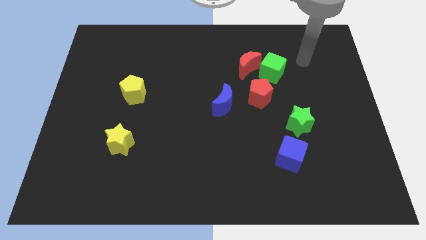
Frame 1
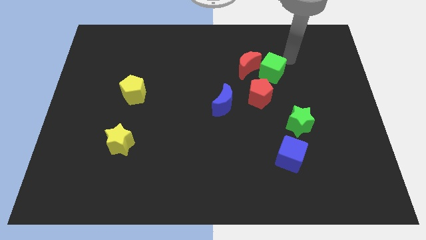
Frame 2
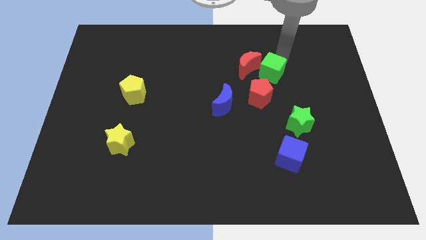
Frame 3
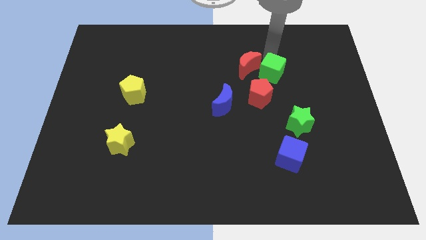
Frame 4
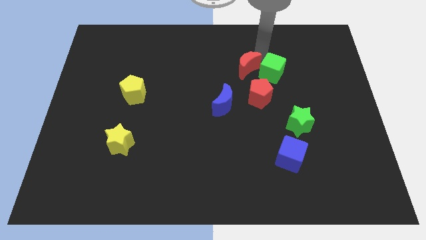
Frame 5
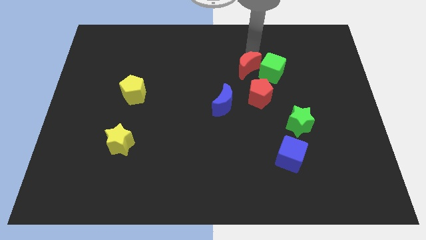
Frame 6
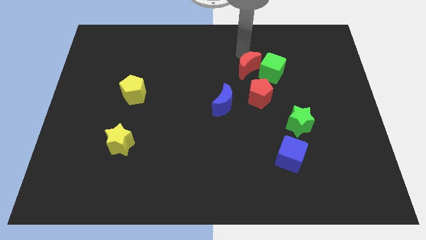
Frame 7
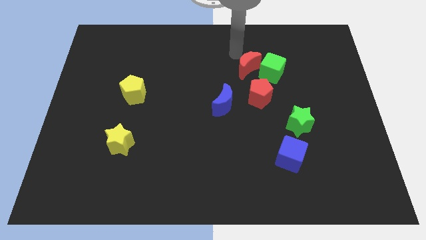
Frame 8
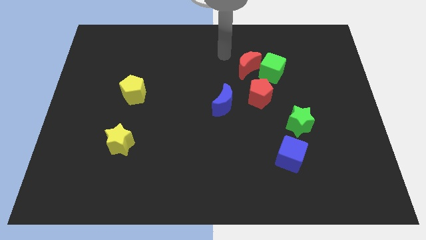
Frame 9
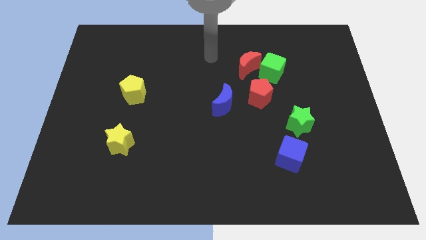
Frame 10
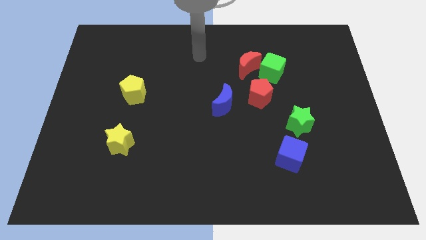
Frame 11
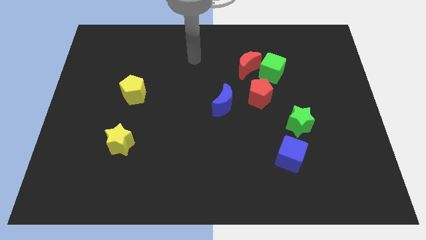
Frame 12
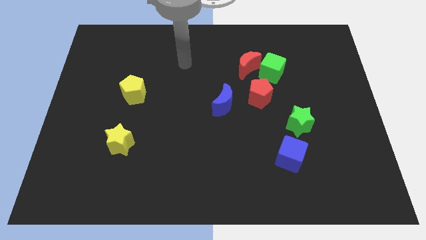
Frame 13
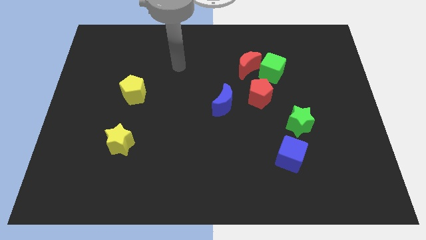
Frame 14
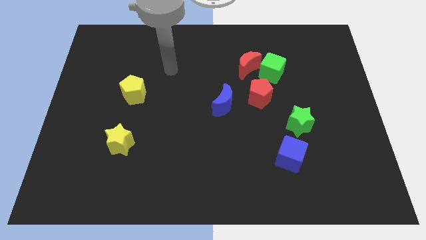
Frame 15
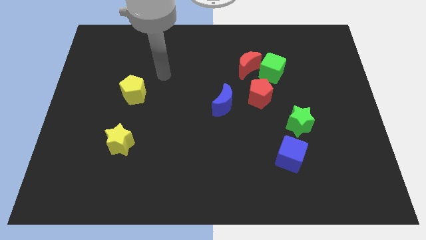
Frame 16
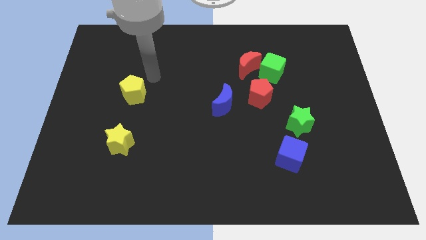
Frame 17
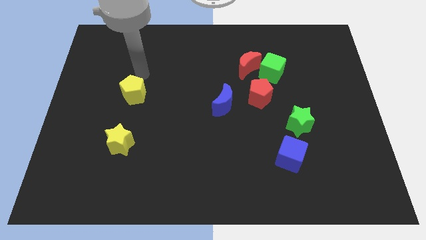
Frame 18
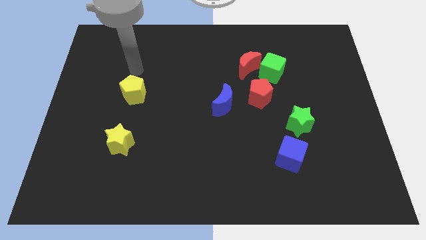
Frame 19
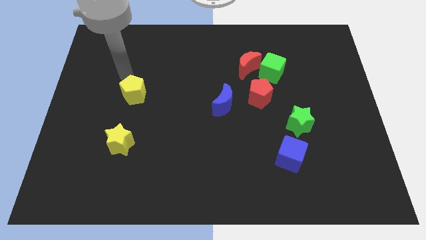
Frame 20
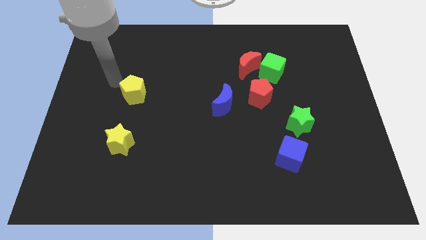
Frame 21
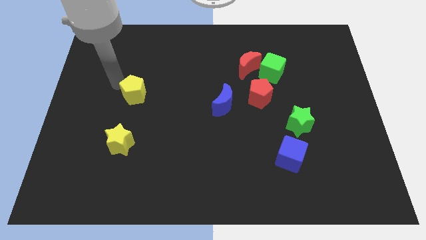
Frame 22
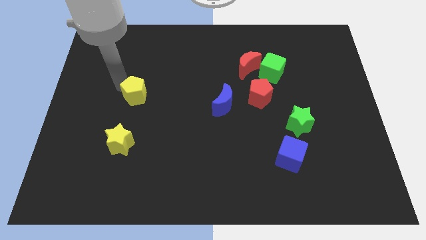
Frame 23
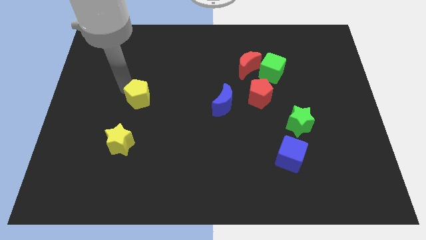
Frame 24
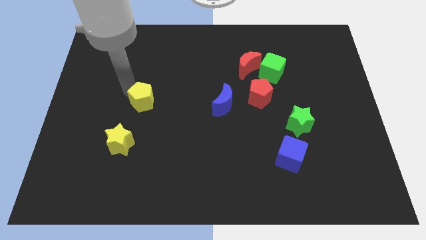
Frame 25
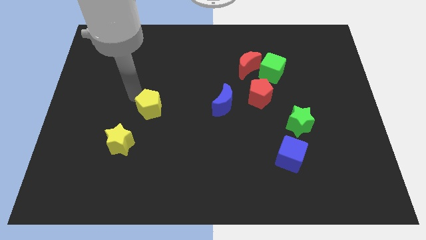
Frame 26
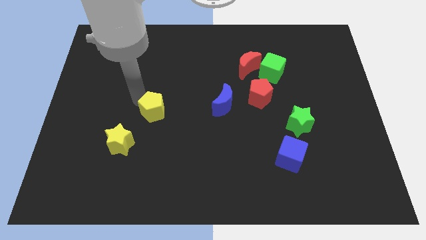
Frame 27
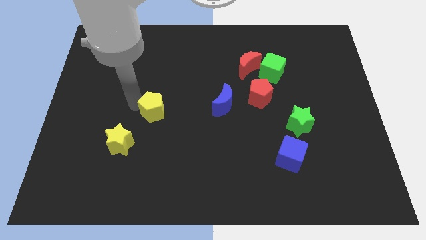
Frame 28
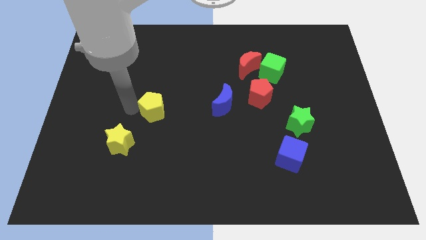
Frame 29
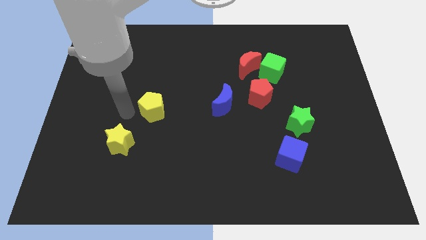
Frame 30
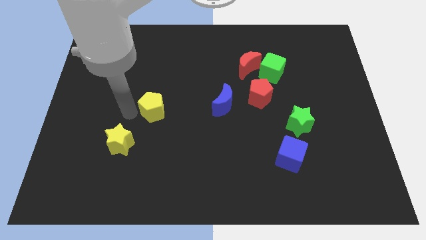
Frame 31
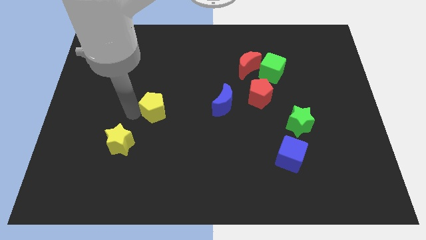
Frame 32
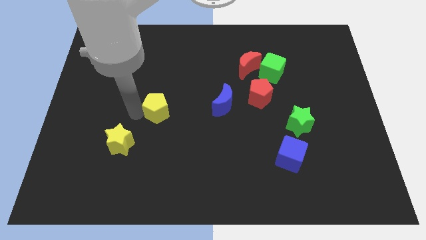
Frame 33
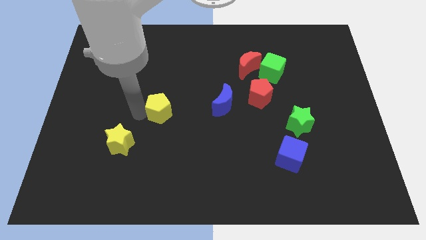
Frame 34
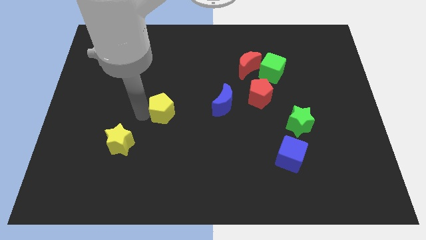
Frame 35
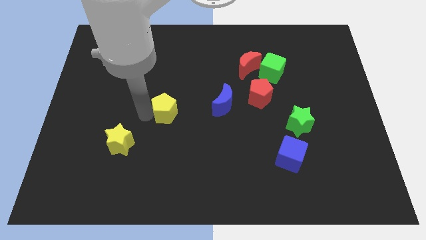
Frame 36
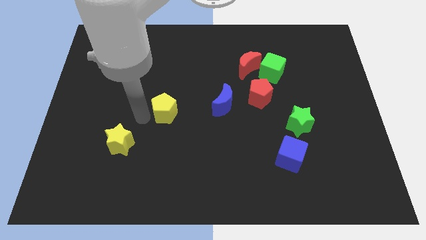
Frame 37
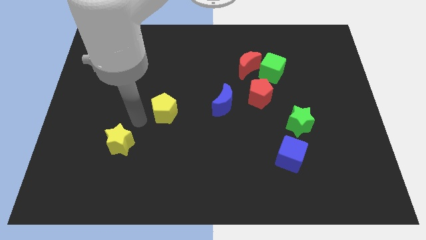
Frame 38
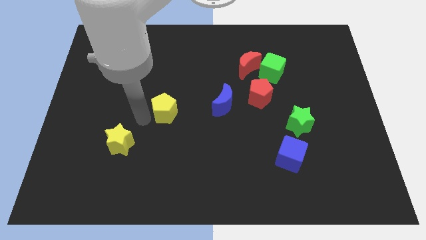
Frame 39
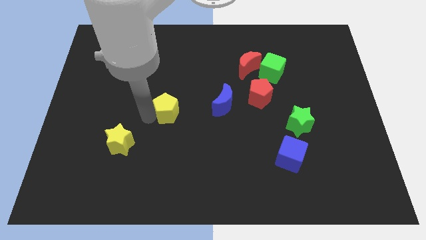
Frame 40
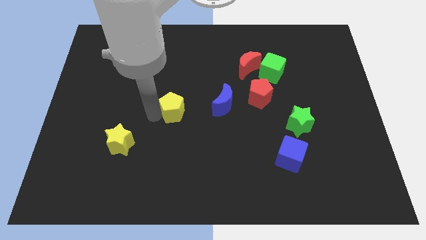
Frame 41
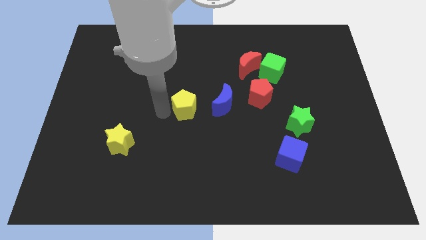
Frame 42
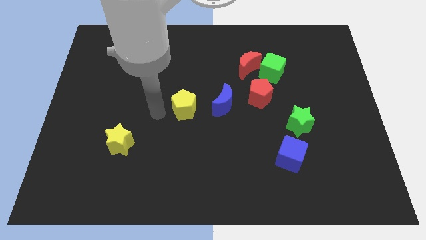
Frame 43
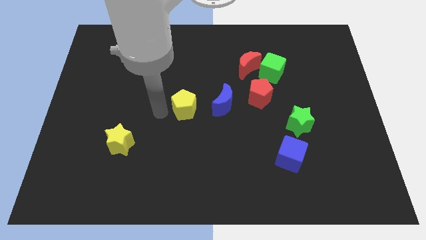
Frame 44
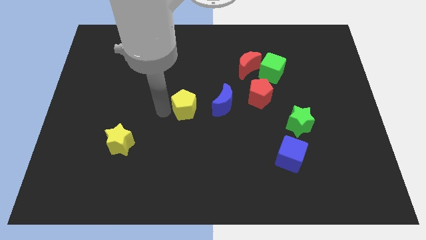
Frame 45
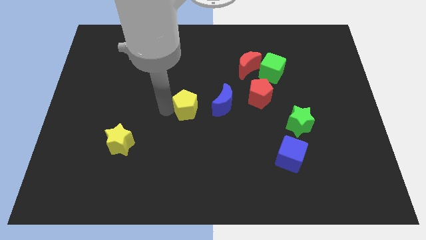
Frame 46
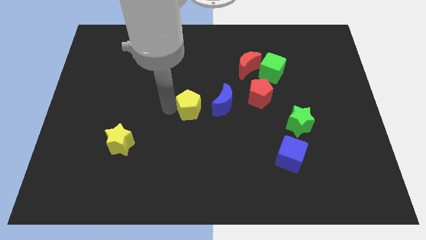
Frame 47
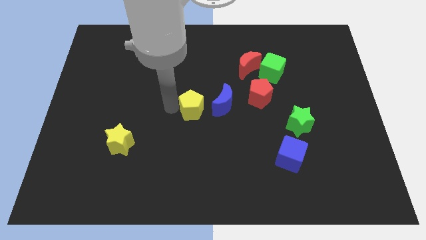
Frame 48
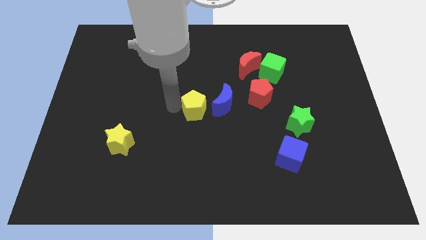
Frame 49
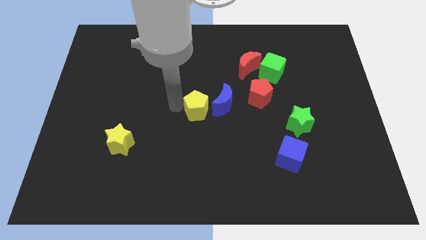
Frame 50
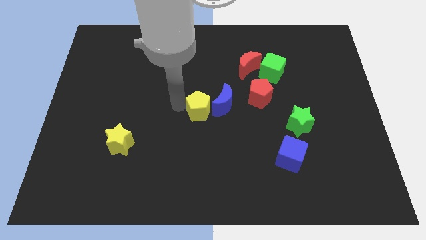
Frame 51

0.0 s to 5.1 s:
put the yellow pentagon to the blue moon

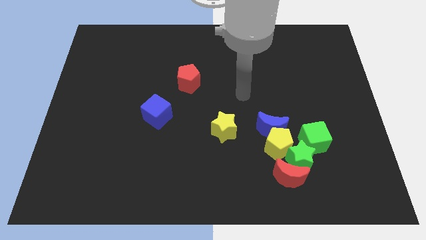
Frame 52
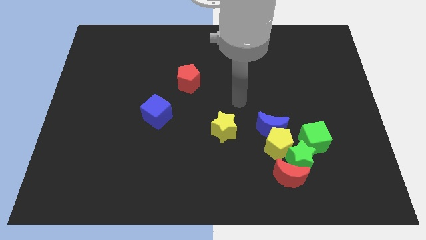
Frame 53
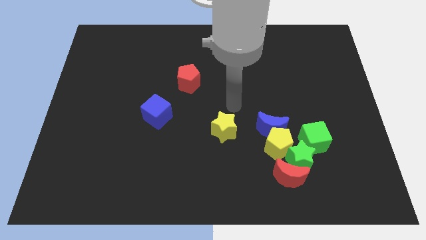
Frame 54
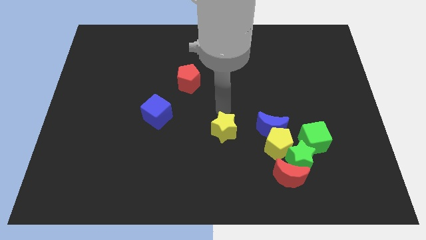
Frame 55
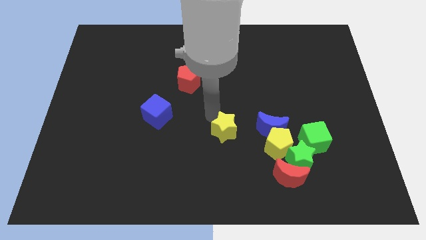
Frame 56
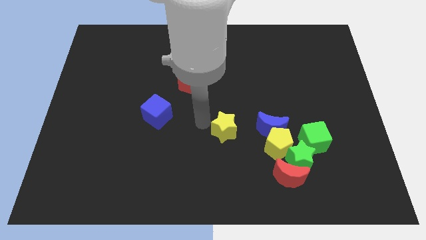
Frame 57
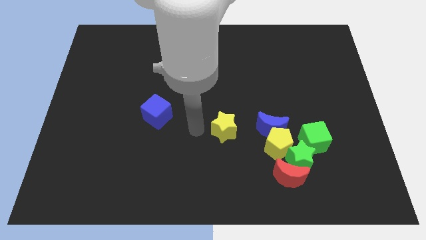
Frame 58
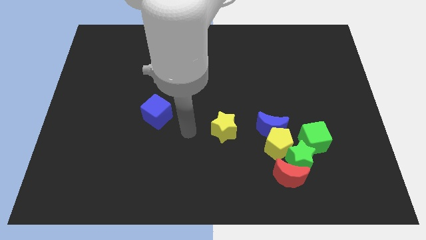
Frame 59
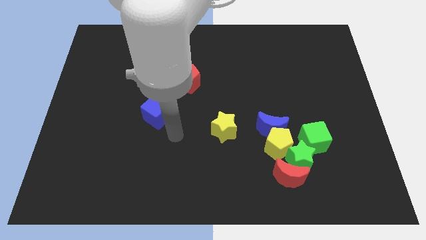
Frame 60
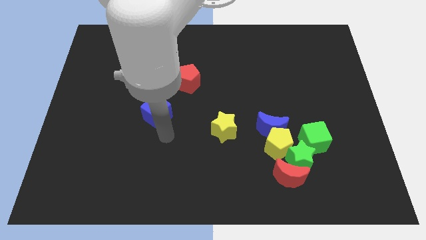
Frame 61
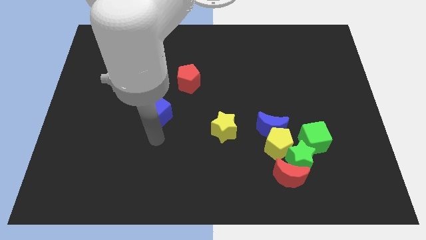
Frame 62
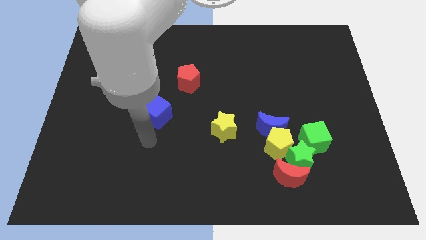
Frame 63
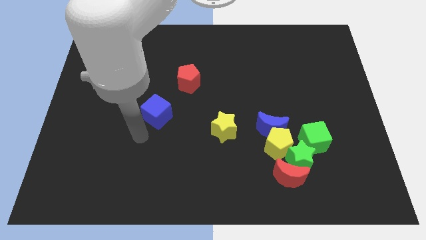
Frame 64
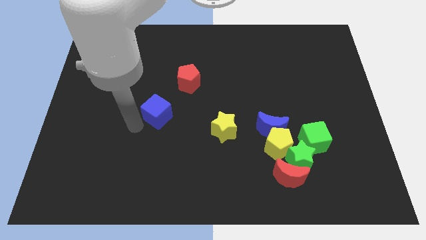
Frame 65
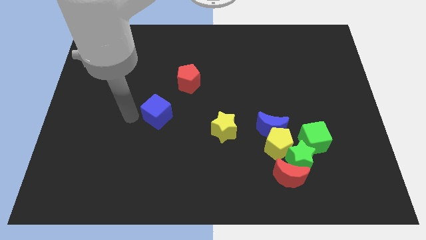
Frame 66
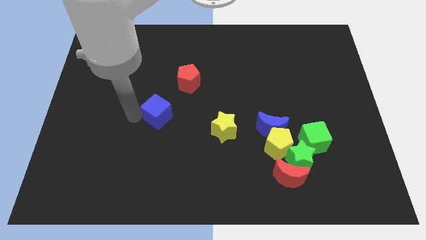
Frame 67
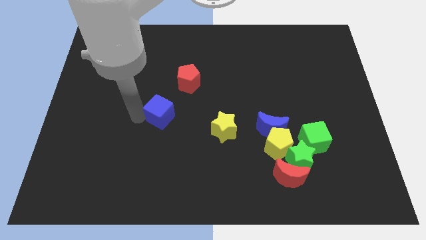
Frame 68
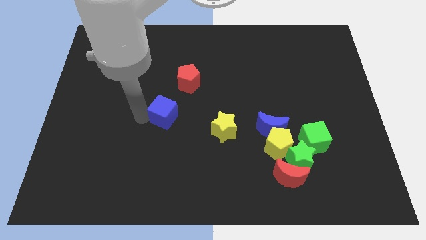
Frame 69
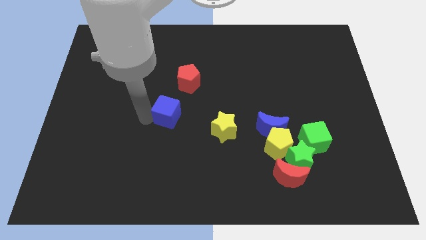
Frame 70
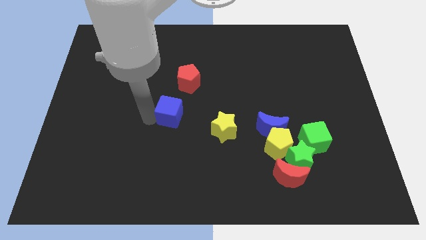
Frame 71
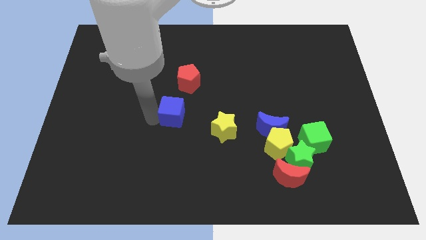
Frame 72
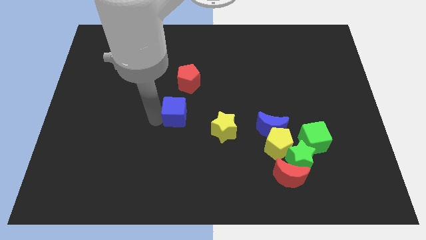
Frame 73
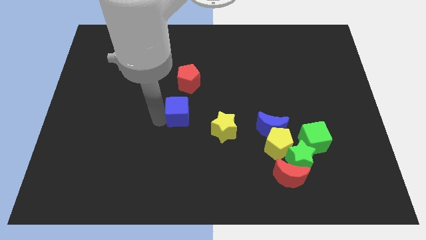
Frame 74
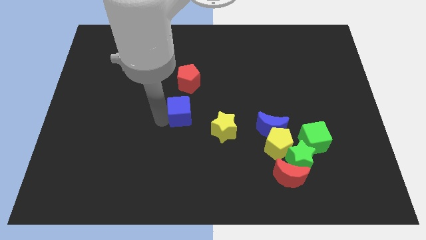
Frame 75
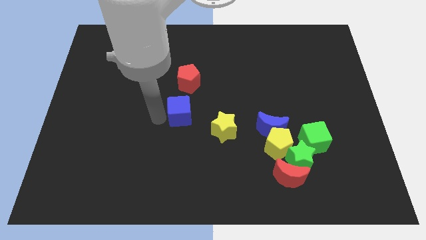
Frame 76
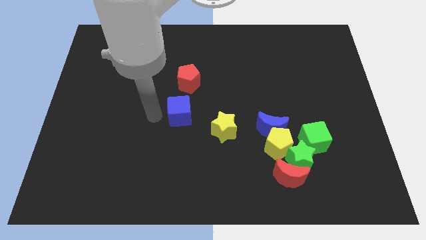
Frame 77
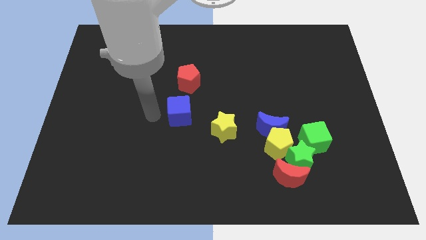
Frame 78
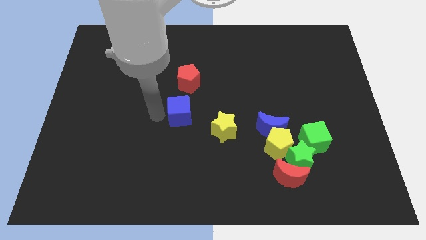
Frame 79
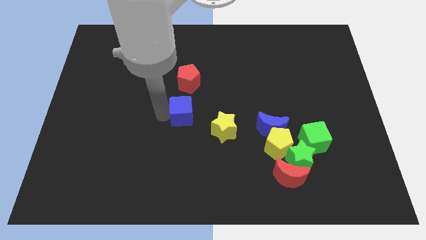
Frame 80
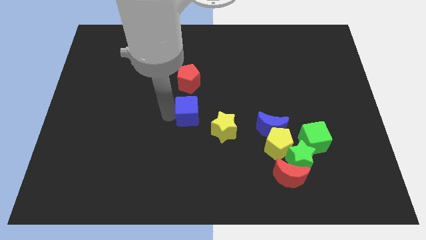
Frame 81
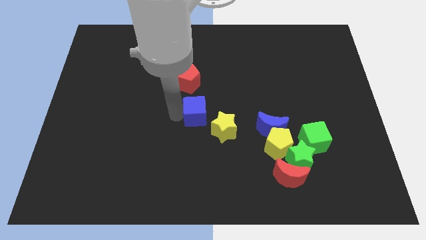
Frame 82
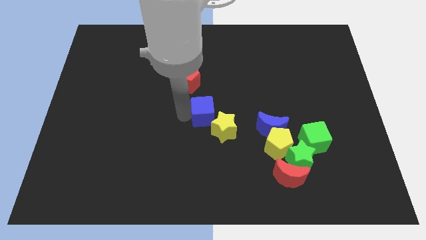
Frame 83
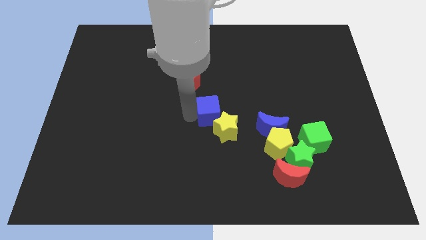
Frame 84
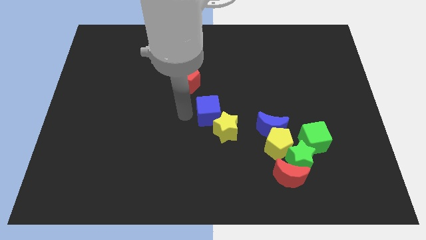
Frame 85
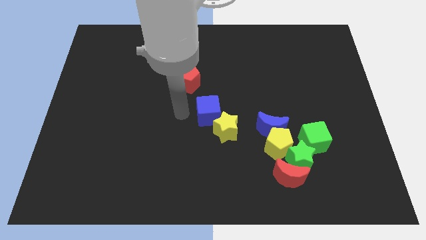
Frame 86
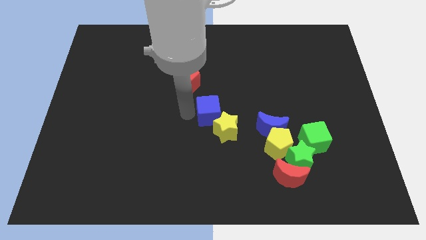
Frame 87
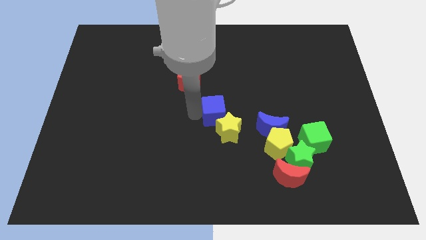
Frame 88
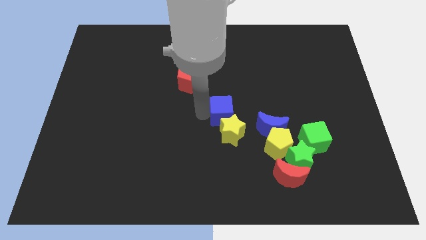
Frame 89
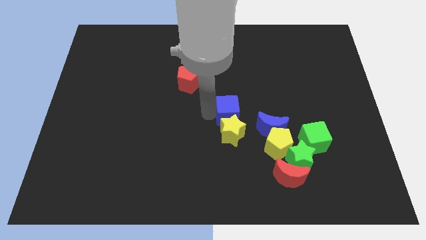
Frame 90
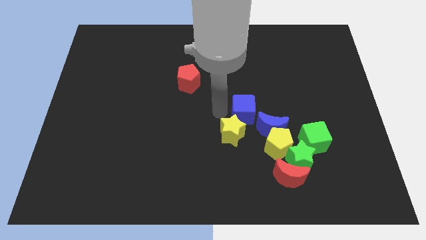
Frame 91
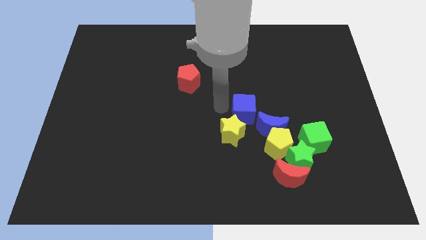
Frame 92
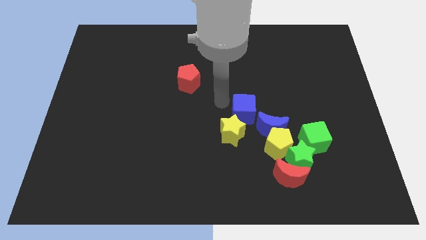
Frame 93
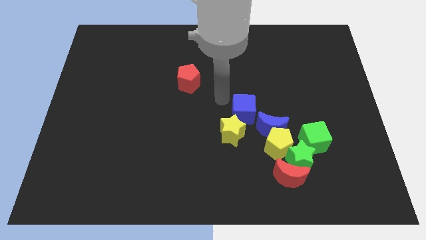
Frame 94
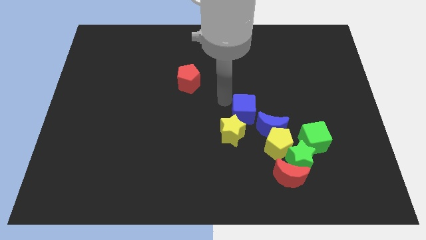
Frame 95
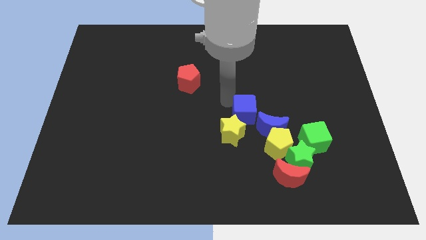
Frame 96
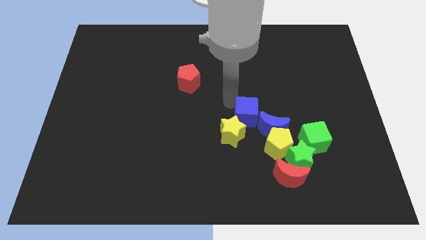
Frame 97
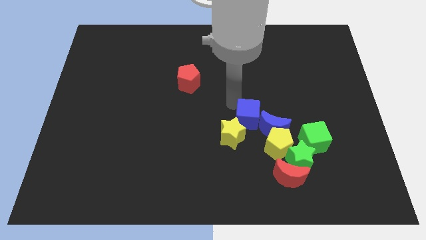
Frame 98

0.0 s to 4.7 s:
move the blue cube towards the blue moon
